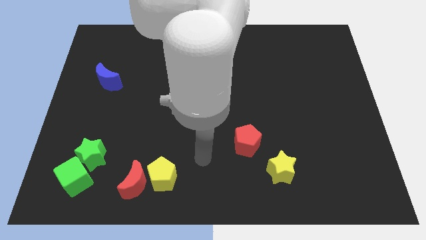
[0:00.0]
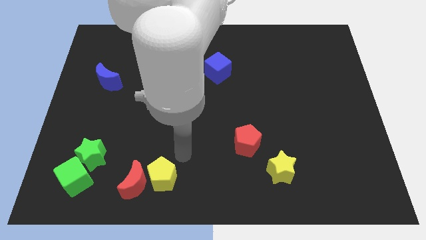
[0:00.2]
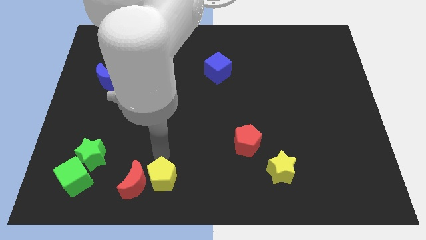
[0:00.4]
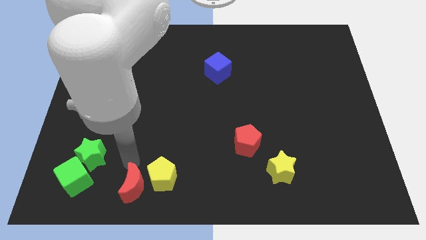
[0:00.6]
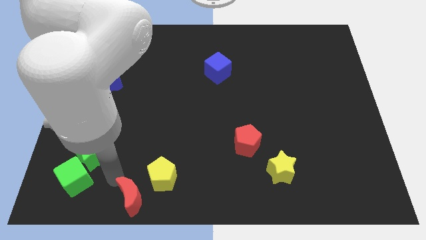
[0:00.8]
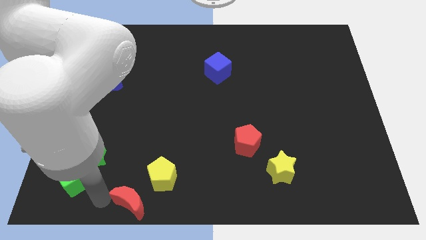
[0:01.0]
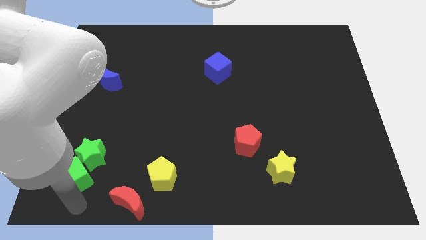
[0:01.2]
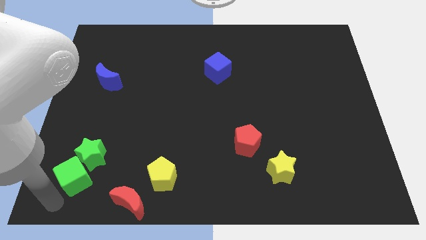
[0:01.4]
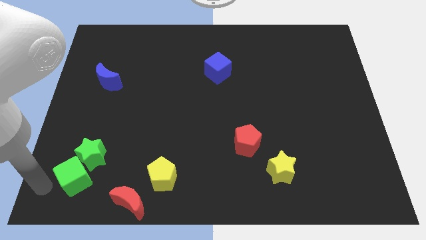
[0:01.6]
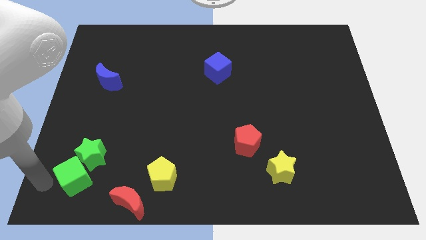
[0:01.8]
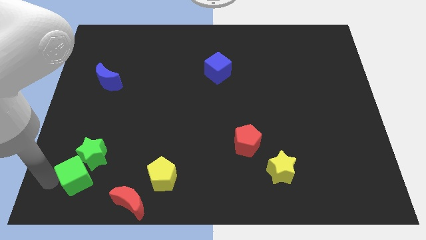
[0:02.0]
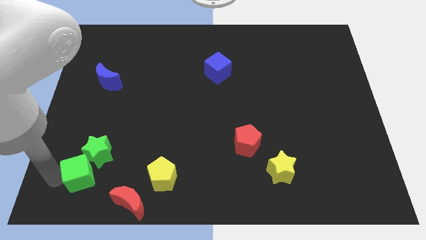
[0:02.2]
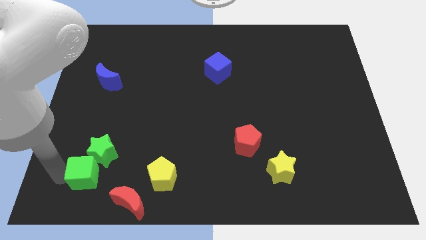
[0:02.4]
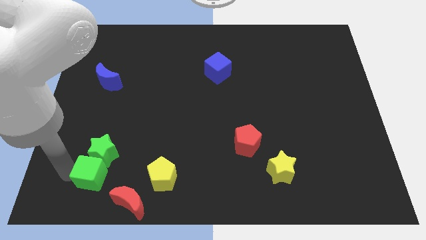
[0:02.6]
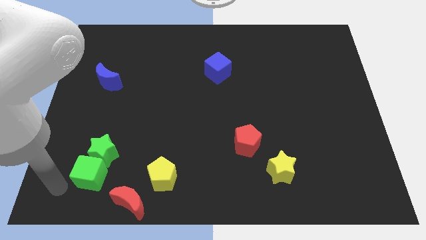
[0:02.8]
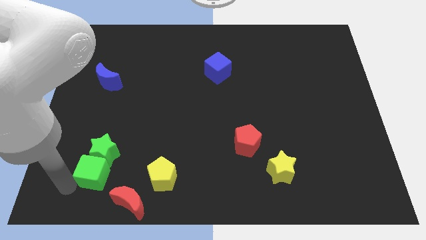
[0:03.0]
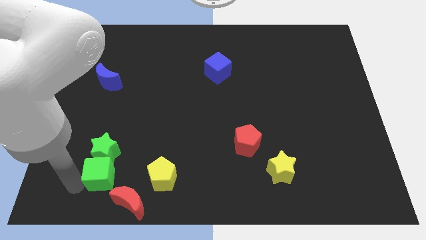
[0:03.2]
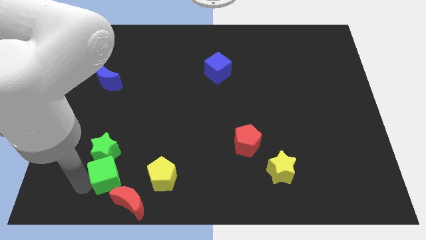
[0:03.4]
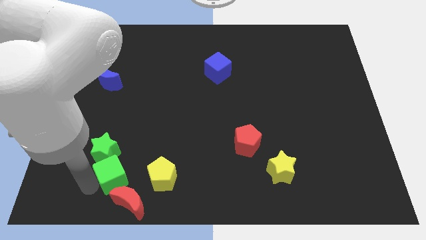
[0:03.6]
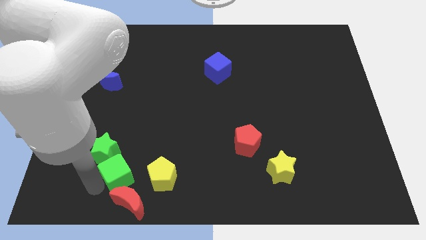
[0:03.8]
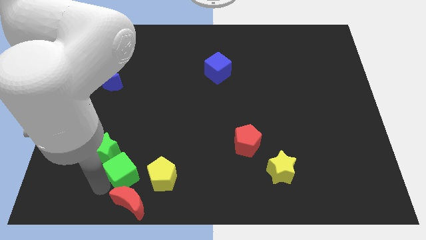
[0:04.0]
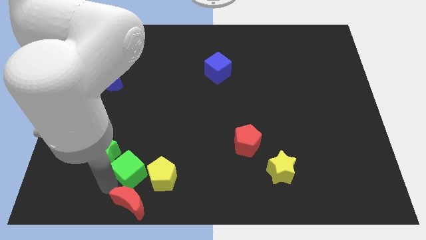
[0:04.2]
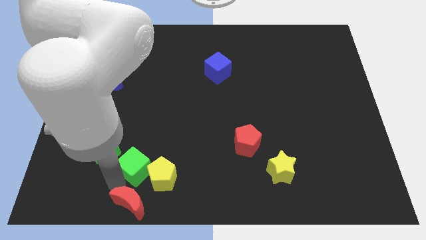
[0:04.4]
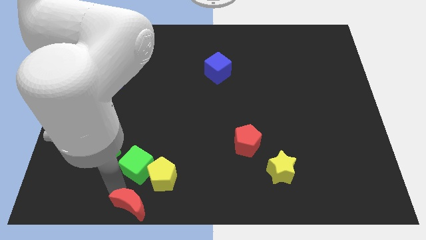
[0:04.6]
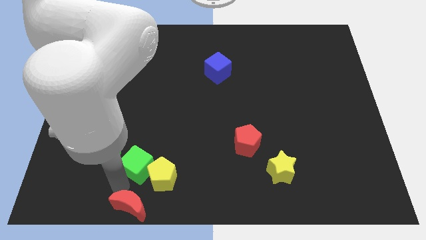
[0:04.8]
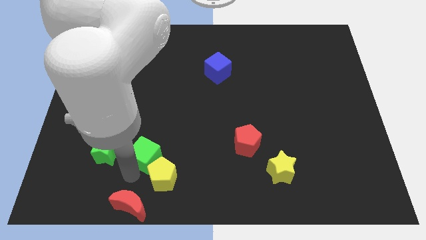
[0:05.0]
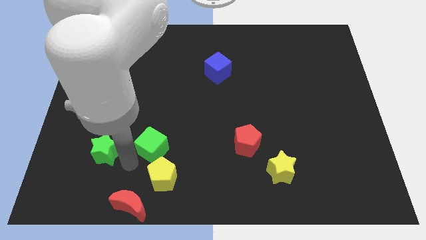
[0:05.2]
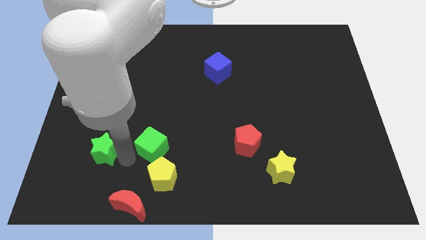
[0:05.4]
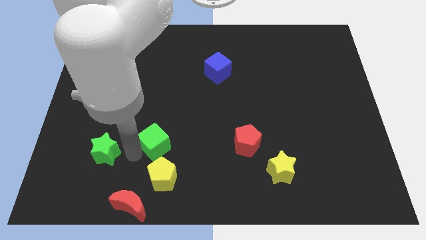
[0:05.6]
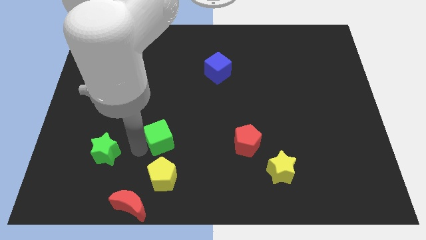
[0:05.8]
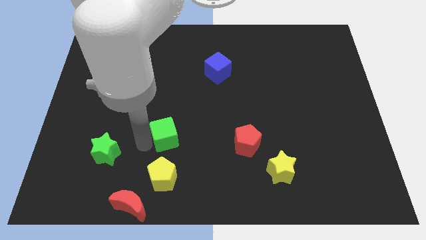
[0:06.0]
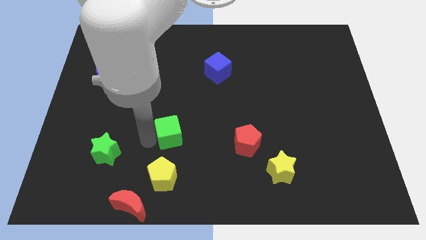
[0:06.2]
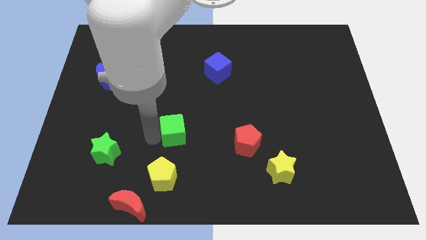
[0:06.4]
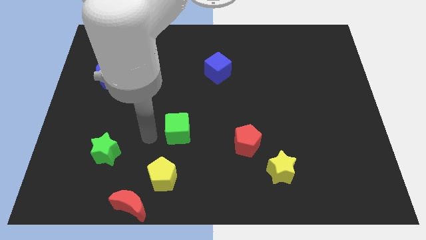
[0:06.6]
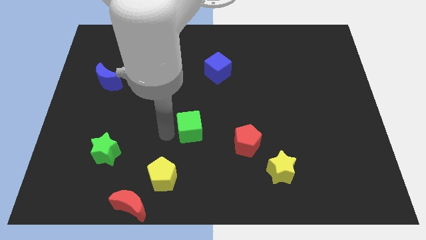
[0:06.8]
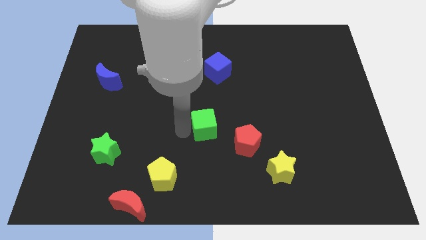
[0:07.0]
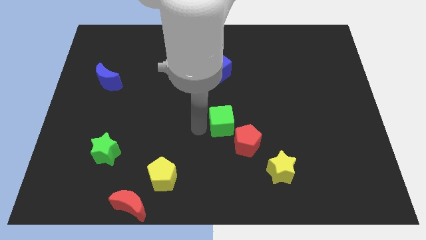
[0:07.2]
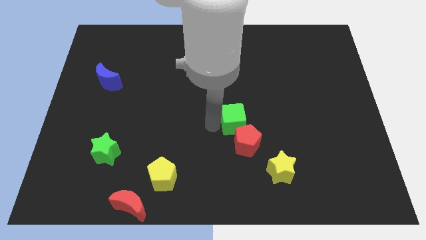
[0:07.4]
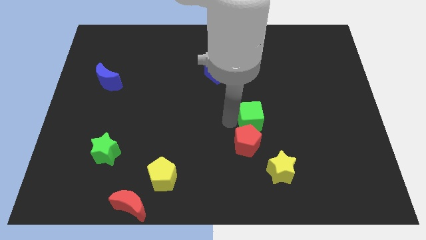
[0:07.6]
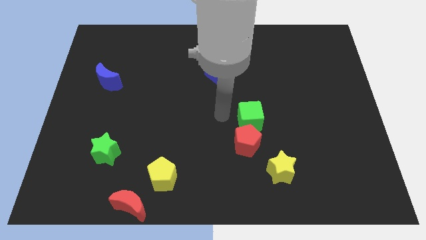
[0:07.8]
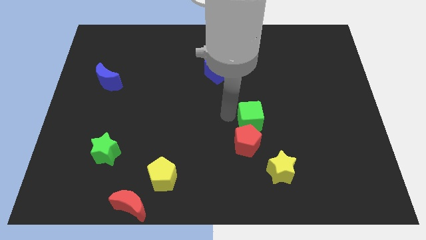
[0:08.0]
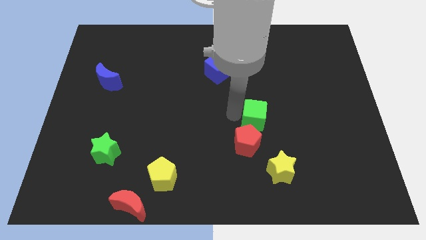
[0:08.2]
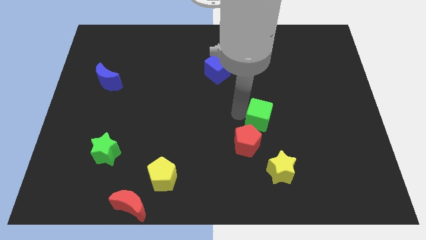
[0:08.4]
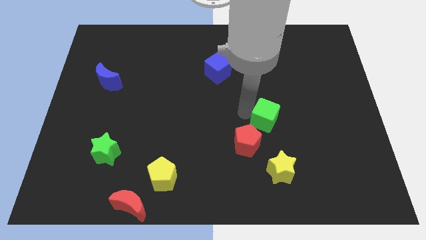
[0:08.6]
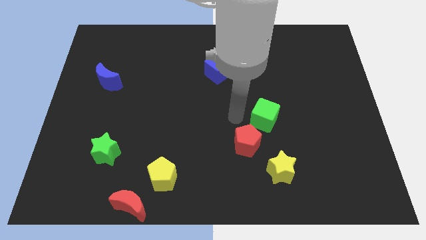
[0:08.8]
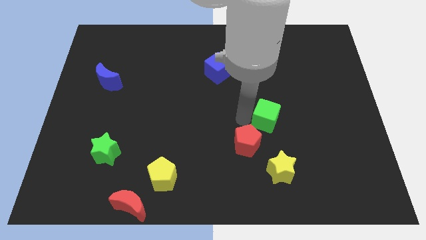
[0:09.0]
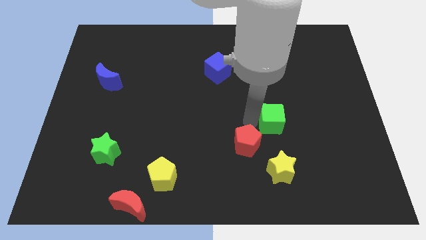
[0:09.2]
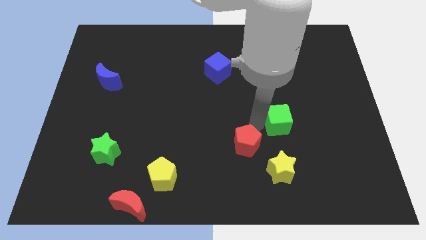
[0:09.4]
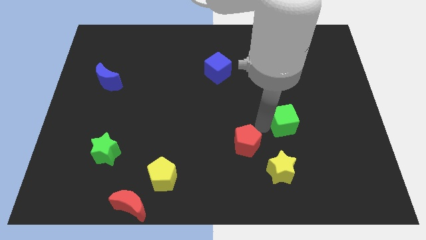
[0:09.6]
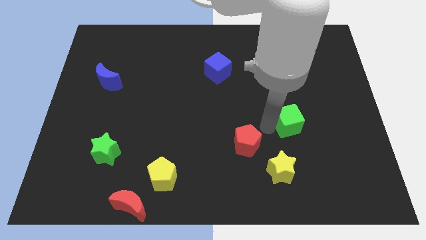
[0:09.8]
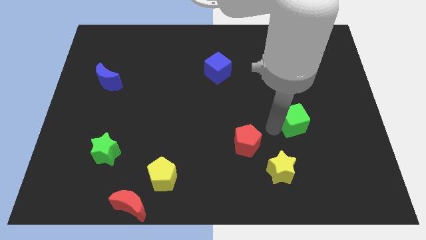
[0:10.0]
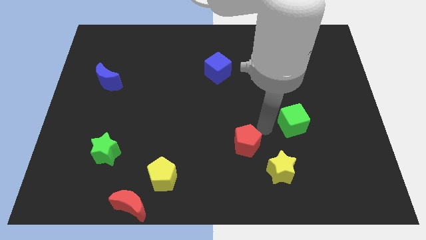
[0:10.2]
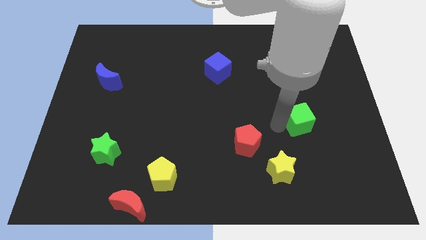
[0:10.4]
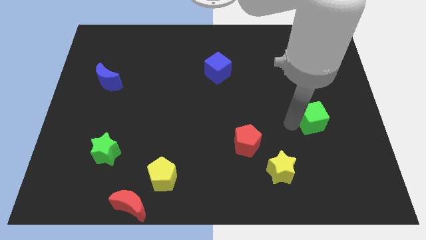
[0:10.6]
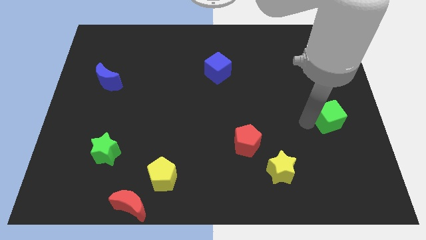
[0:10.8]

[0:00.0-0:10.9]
move the green cube to the right side

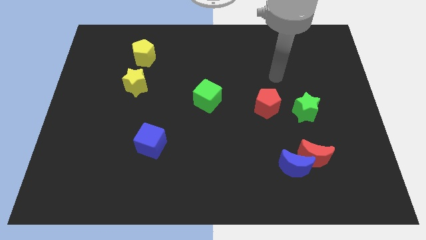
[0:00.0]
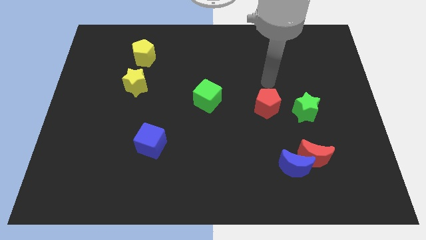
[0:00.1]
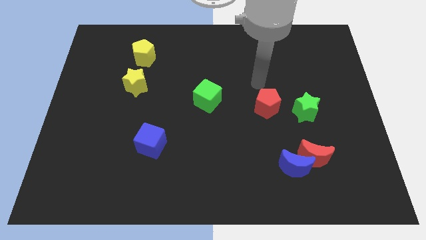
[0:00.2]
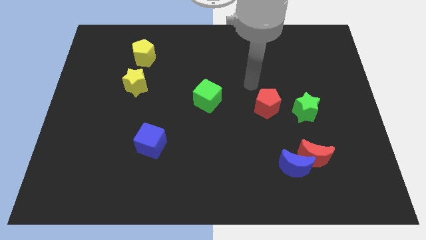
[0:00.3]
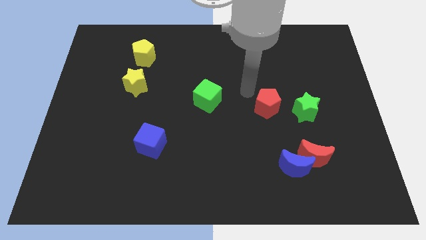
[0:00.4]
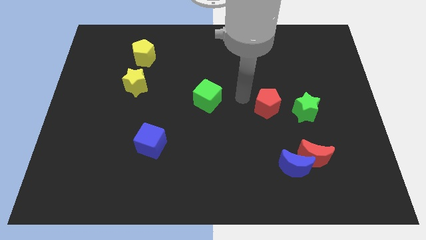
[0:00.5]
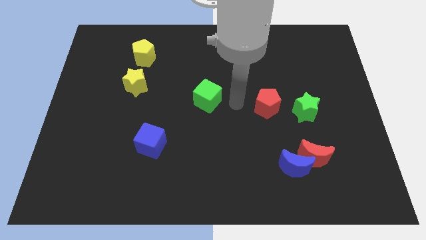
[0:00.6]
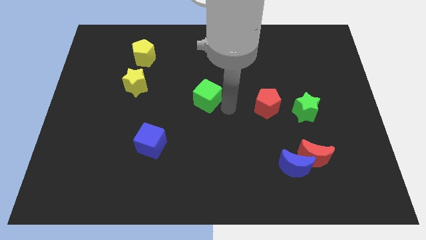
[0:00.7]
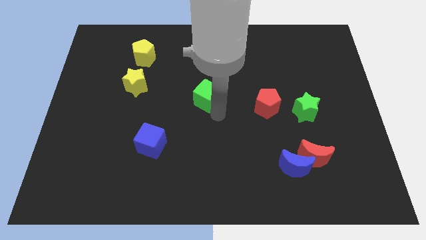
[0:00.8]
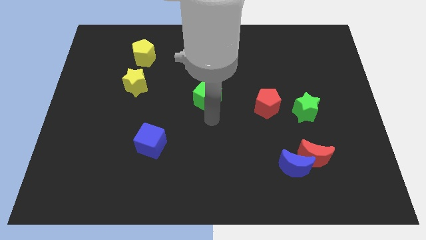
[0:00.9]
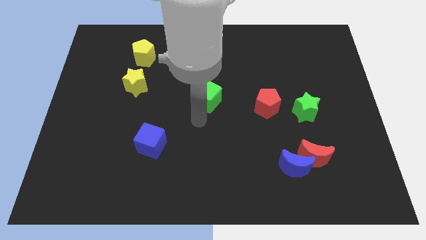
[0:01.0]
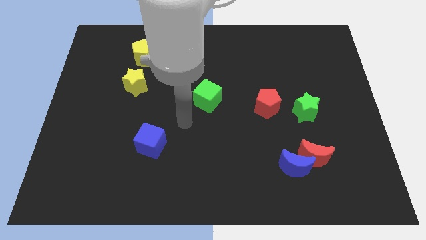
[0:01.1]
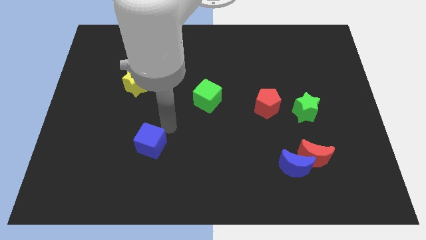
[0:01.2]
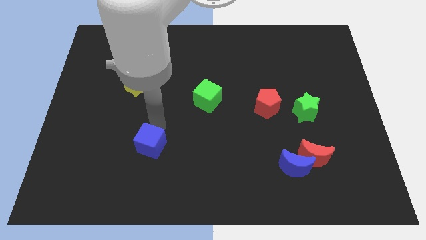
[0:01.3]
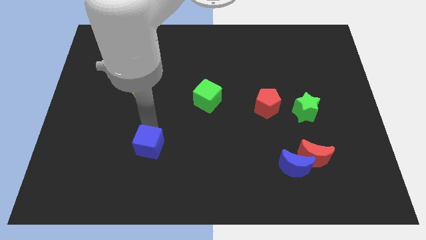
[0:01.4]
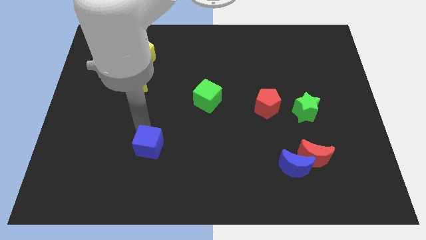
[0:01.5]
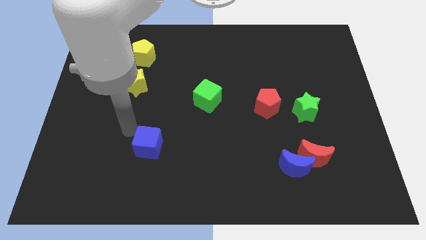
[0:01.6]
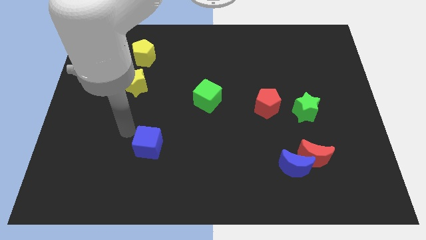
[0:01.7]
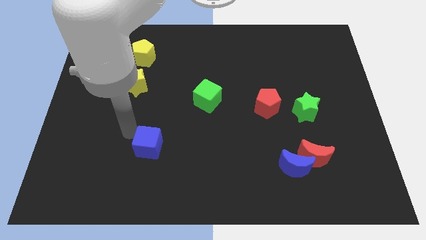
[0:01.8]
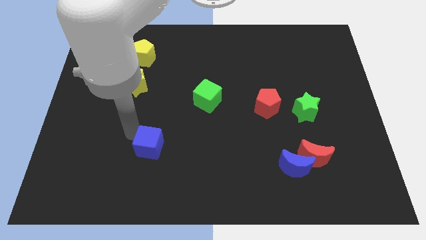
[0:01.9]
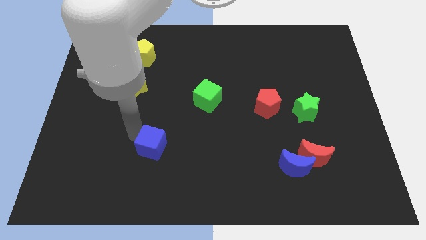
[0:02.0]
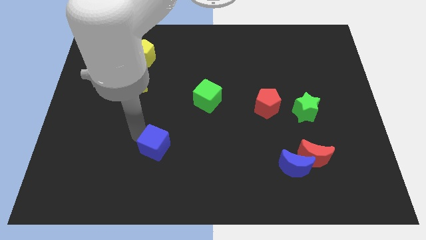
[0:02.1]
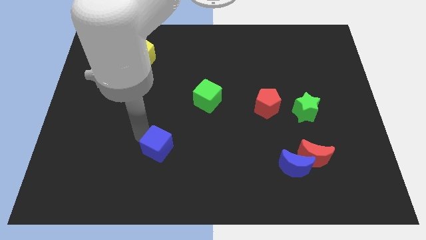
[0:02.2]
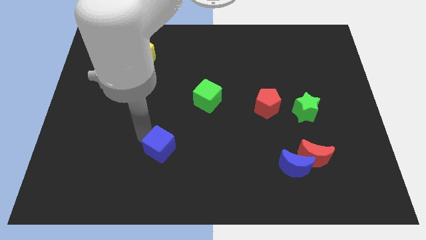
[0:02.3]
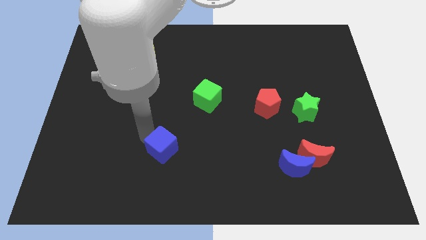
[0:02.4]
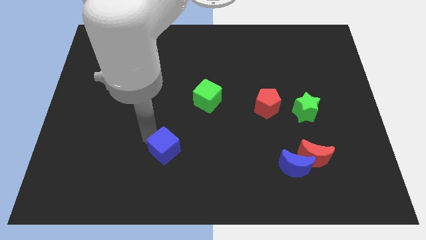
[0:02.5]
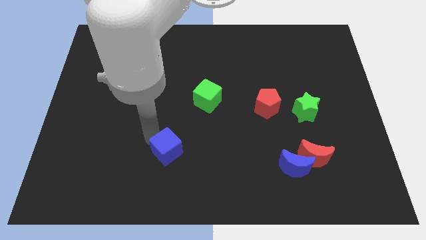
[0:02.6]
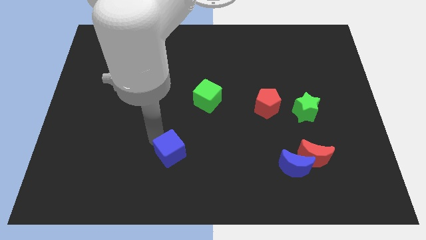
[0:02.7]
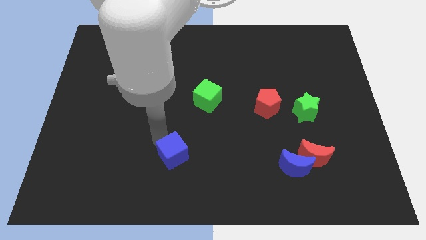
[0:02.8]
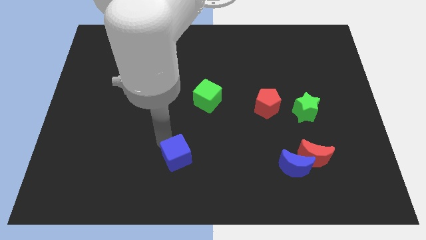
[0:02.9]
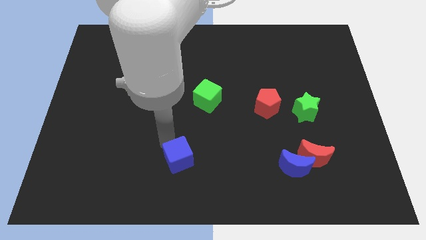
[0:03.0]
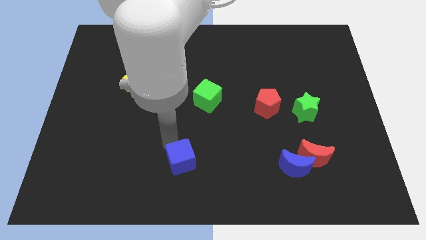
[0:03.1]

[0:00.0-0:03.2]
put the blue cube to the bottom
